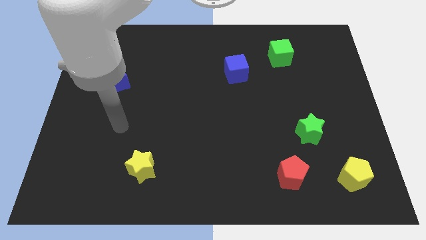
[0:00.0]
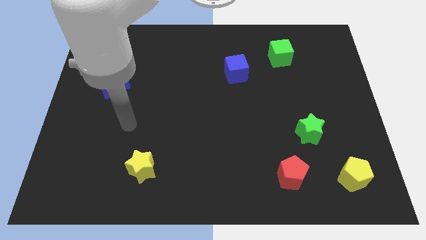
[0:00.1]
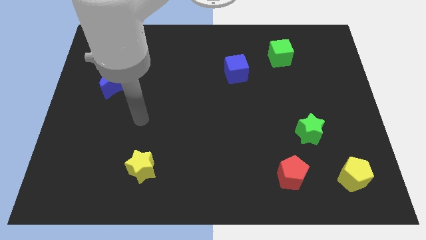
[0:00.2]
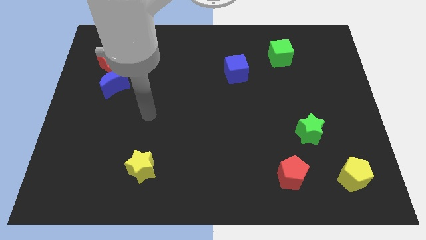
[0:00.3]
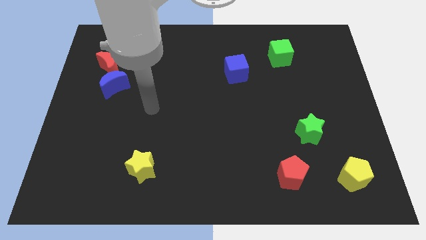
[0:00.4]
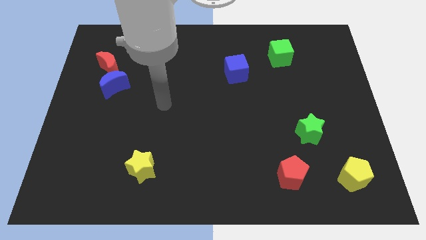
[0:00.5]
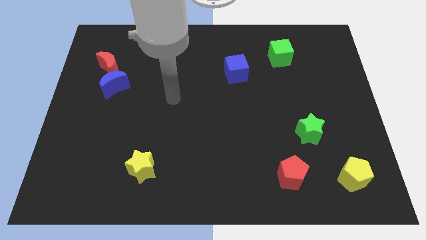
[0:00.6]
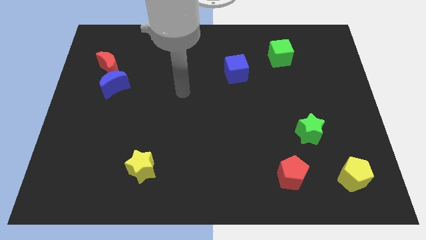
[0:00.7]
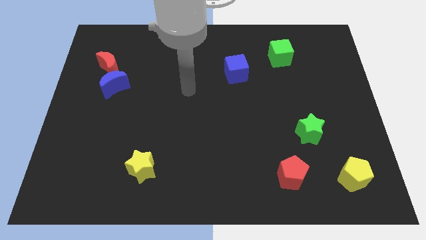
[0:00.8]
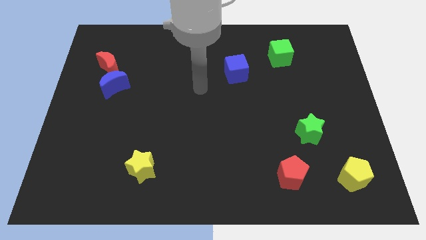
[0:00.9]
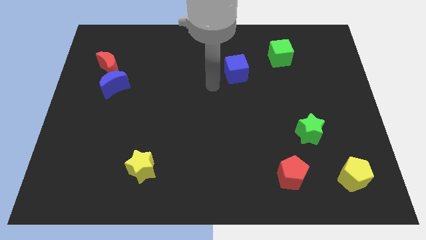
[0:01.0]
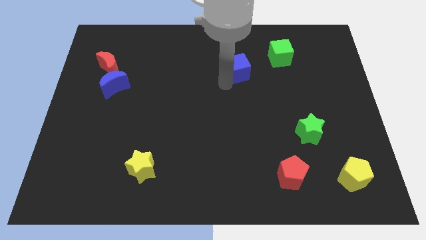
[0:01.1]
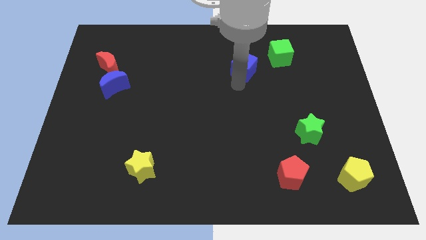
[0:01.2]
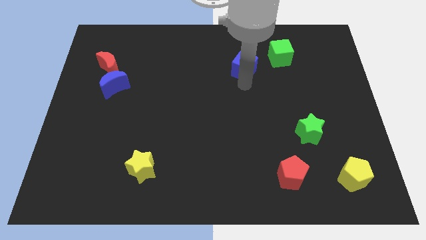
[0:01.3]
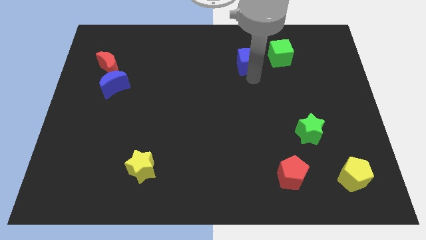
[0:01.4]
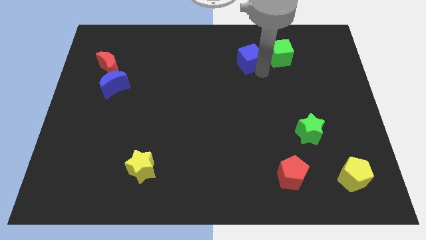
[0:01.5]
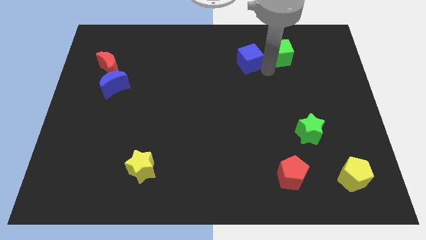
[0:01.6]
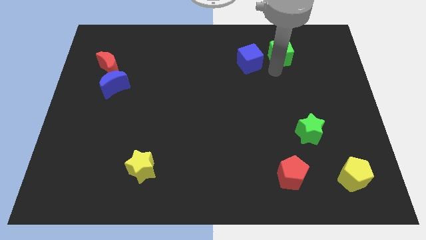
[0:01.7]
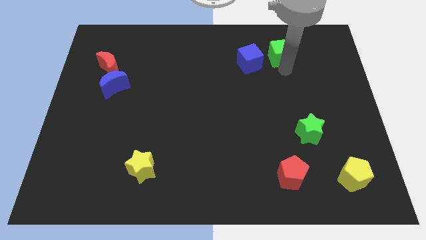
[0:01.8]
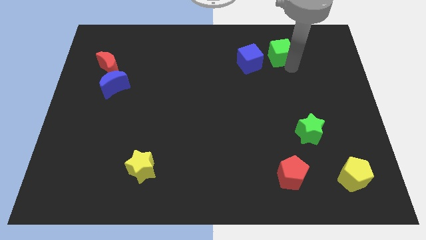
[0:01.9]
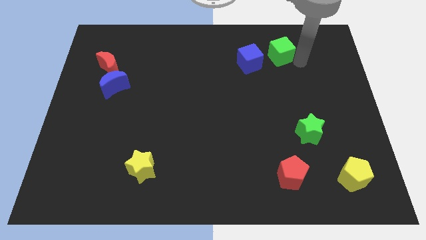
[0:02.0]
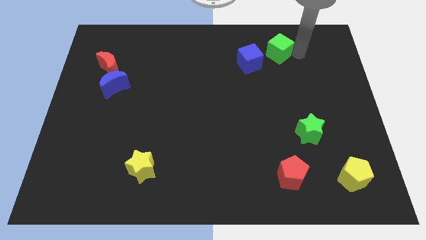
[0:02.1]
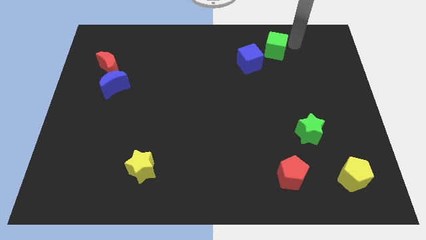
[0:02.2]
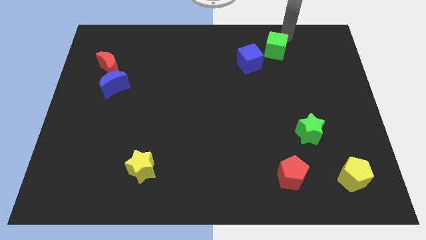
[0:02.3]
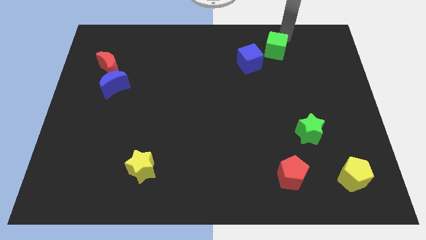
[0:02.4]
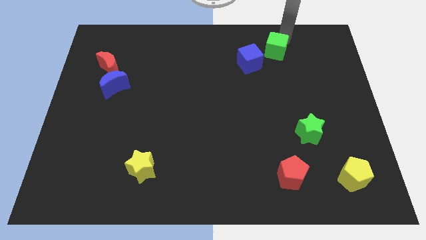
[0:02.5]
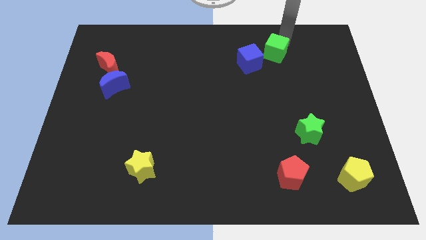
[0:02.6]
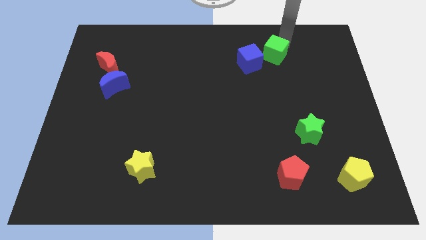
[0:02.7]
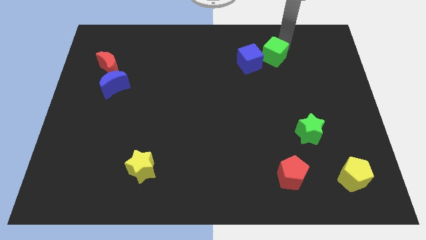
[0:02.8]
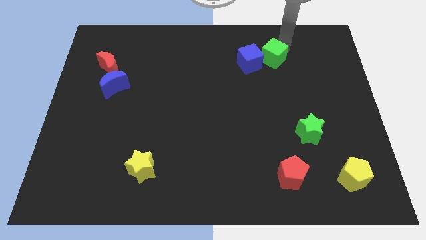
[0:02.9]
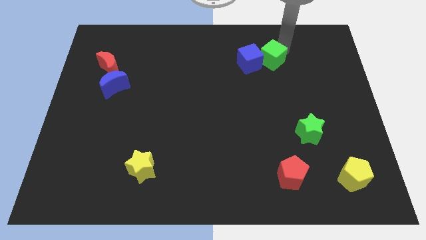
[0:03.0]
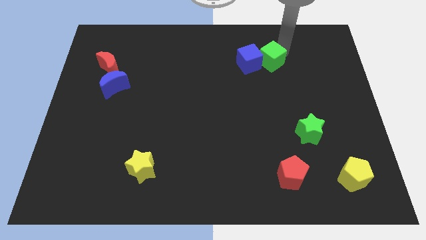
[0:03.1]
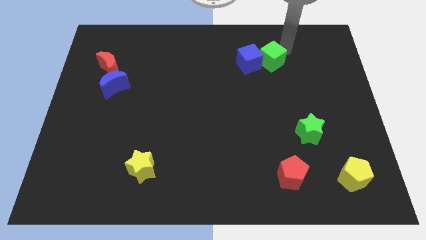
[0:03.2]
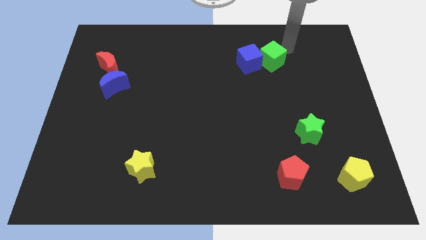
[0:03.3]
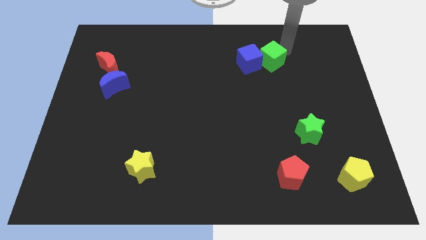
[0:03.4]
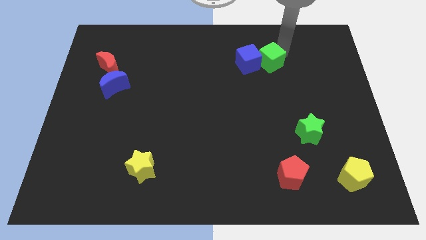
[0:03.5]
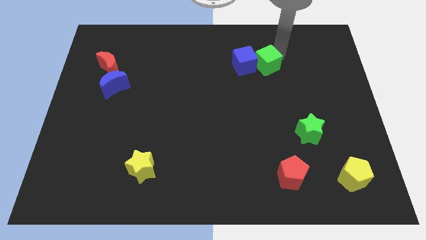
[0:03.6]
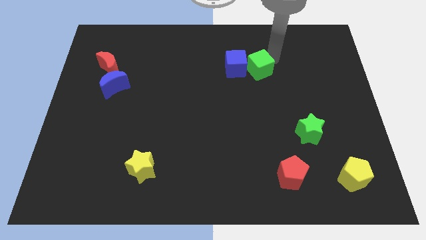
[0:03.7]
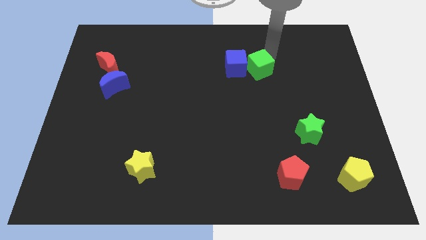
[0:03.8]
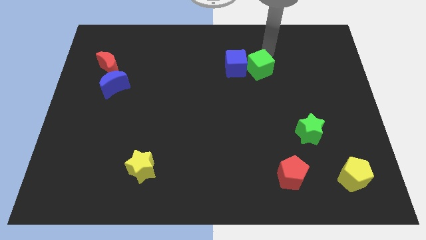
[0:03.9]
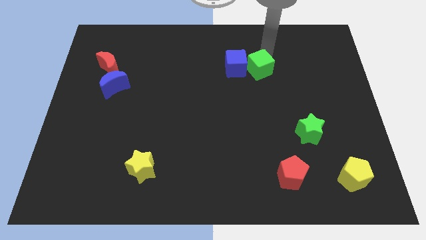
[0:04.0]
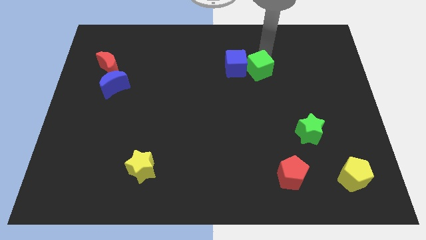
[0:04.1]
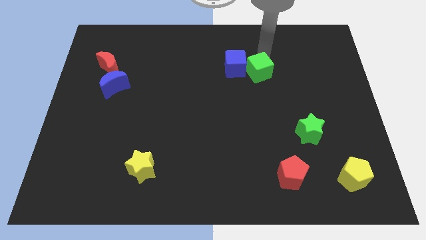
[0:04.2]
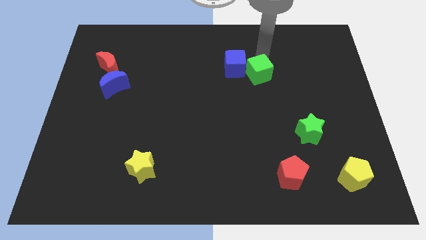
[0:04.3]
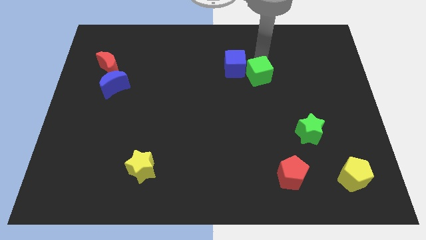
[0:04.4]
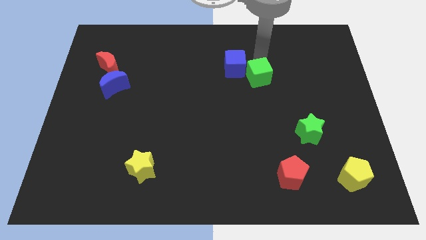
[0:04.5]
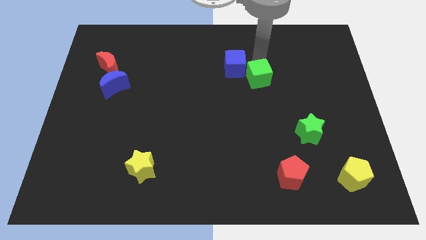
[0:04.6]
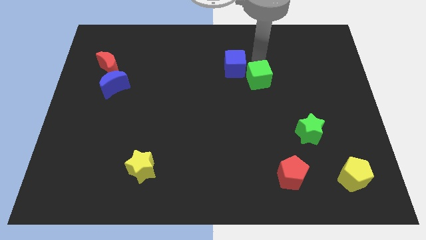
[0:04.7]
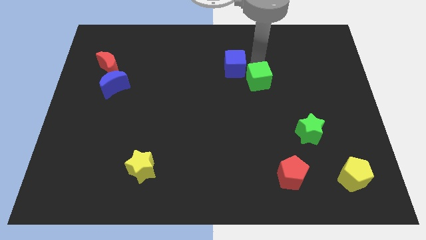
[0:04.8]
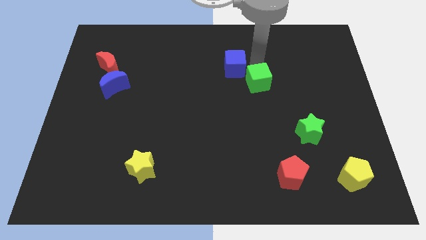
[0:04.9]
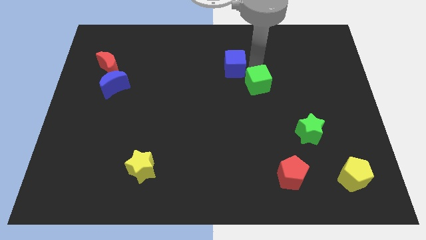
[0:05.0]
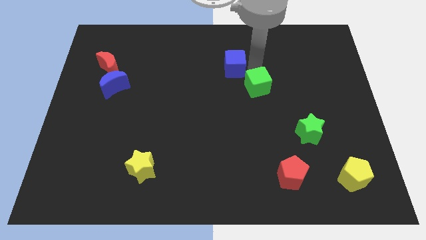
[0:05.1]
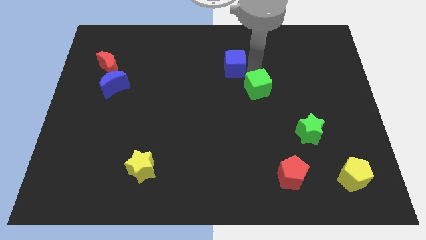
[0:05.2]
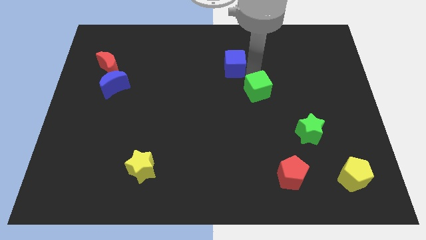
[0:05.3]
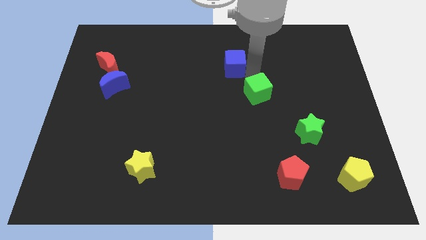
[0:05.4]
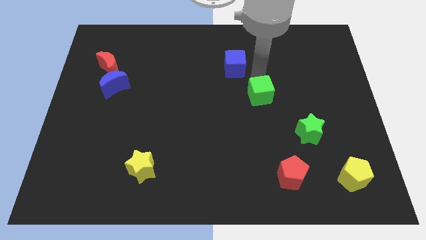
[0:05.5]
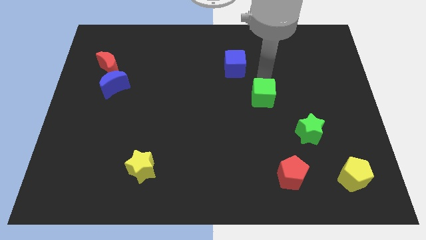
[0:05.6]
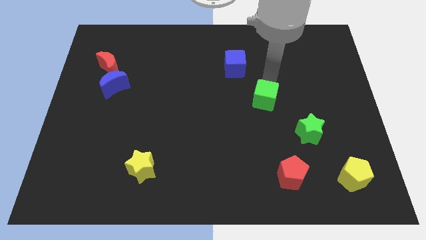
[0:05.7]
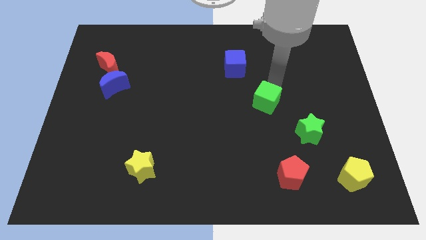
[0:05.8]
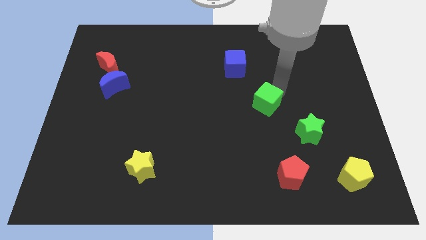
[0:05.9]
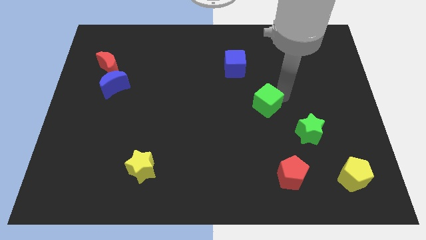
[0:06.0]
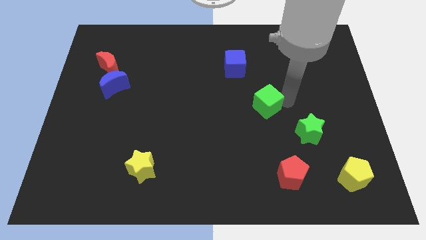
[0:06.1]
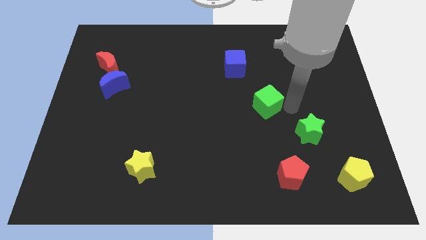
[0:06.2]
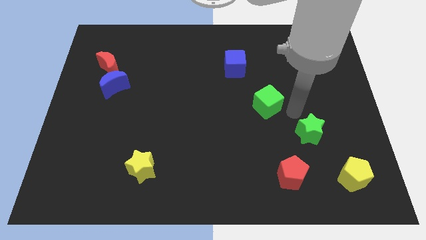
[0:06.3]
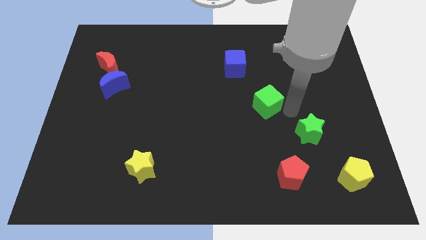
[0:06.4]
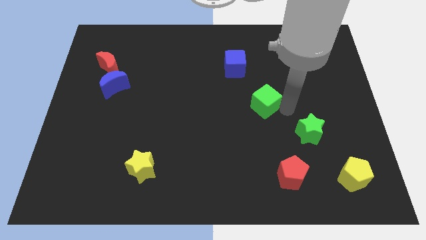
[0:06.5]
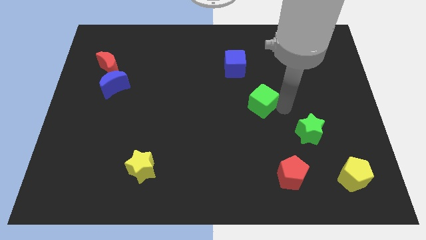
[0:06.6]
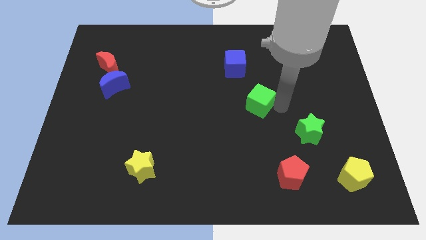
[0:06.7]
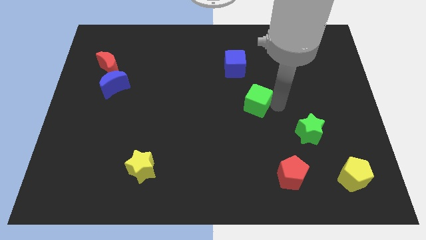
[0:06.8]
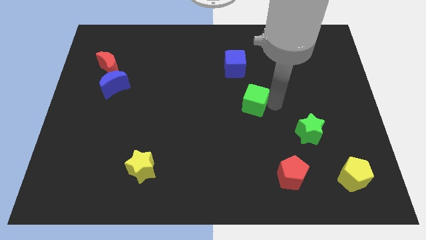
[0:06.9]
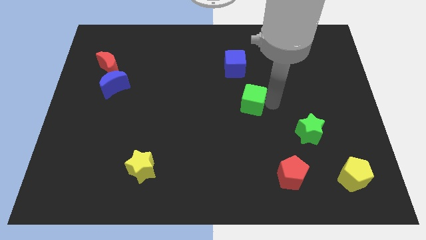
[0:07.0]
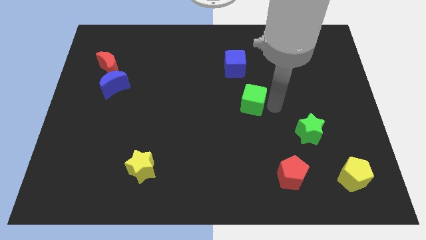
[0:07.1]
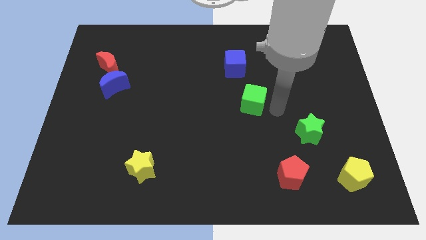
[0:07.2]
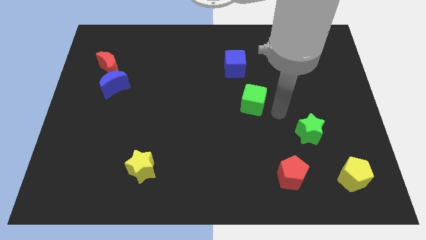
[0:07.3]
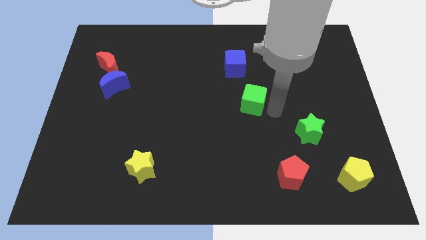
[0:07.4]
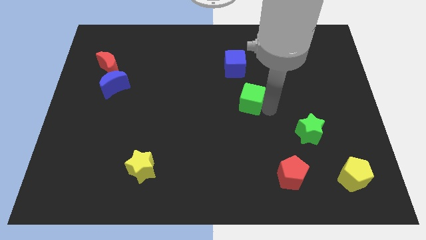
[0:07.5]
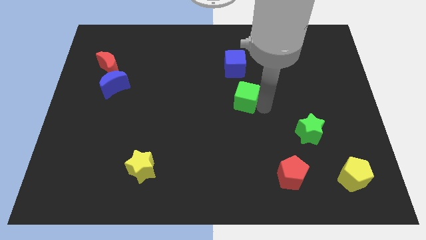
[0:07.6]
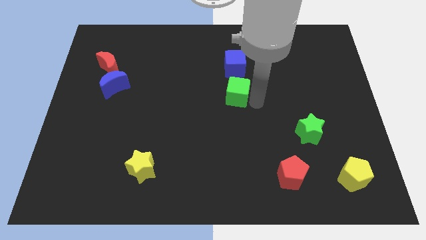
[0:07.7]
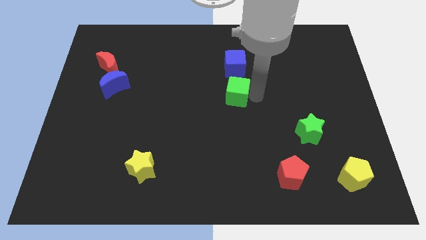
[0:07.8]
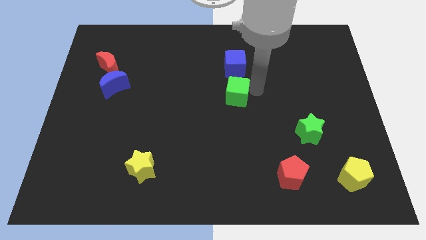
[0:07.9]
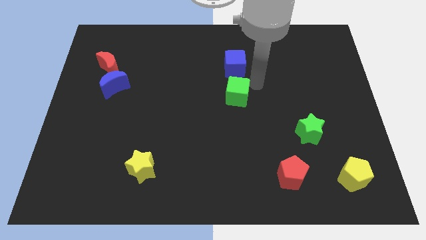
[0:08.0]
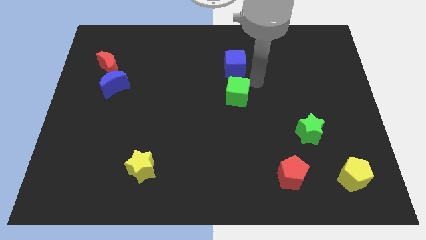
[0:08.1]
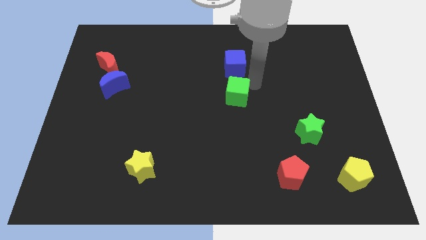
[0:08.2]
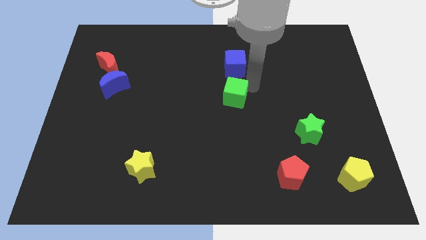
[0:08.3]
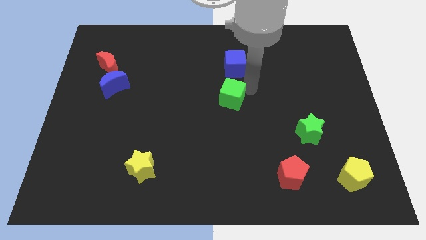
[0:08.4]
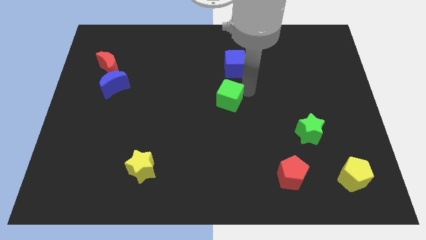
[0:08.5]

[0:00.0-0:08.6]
push the green cube down and left
